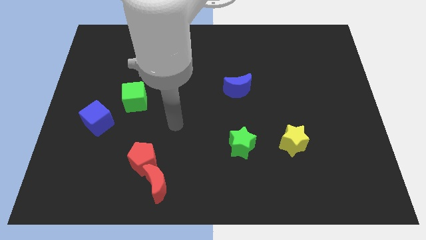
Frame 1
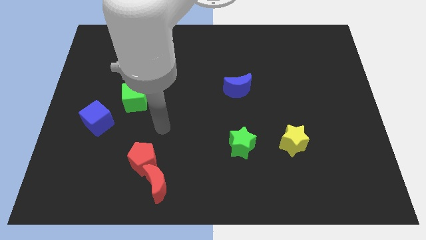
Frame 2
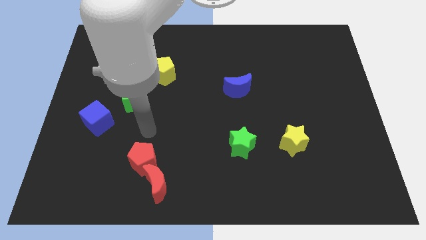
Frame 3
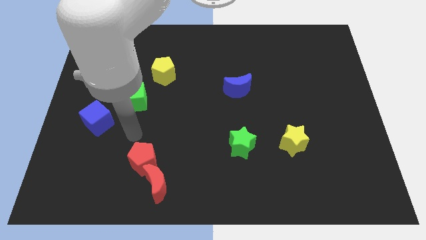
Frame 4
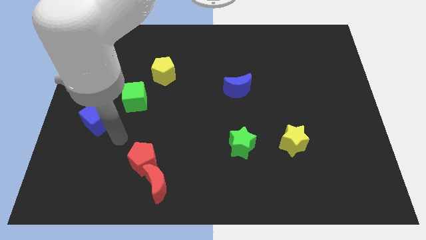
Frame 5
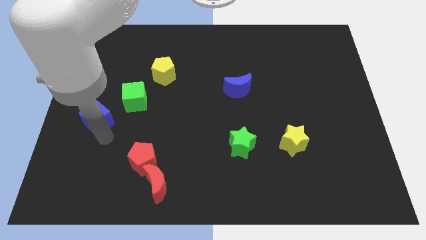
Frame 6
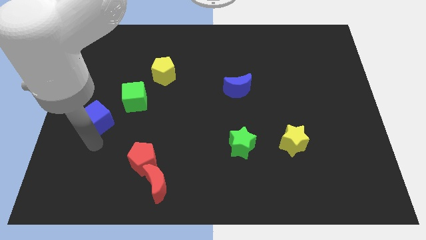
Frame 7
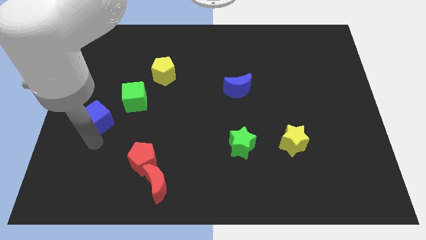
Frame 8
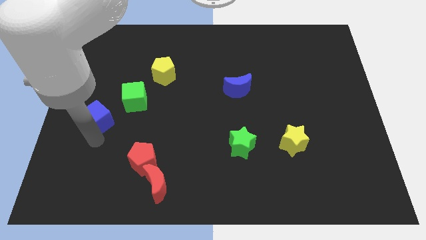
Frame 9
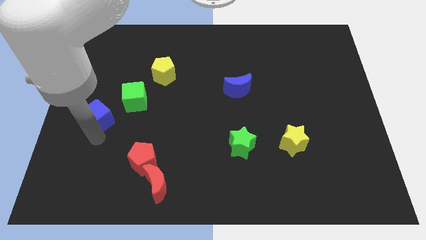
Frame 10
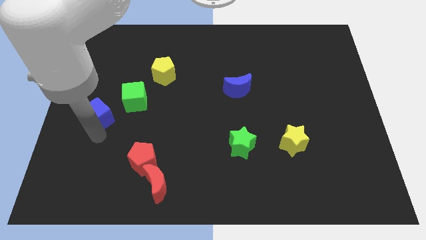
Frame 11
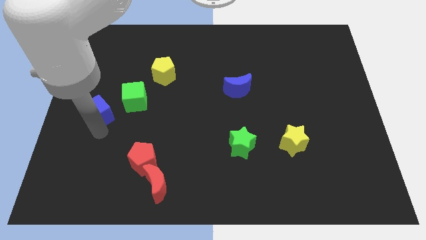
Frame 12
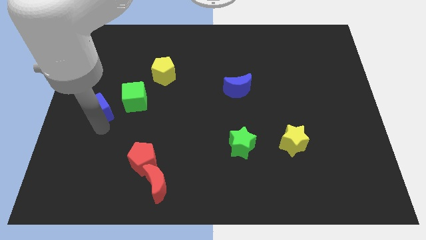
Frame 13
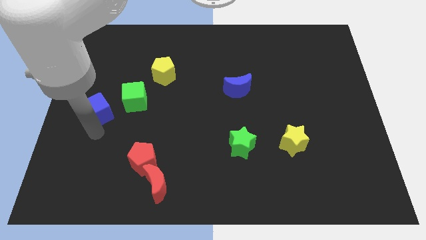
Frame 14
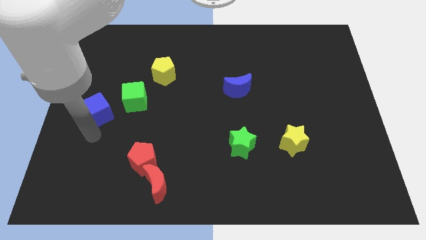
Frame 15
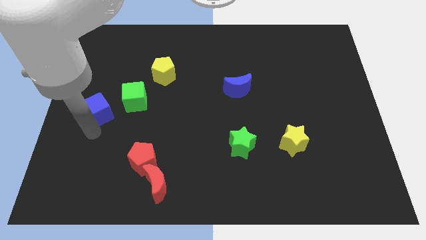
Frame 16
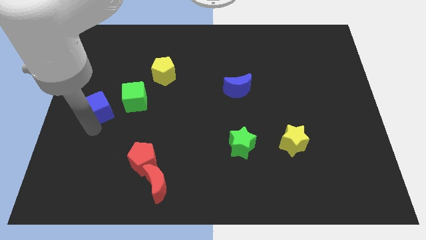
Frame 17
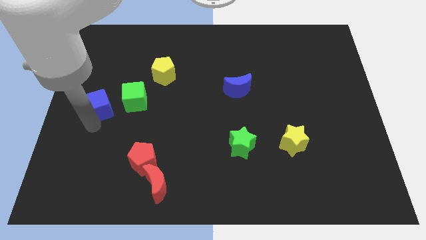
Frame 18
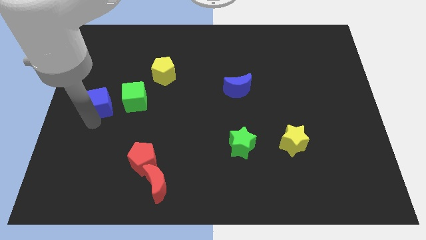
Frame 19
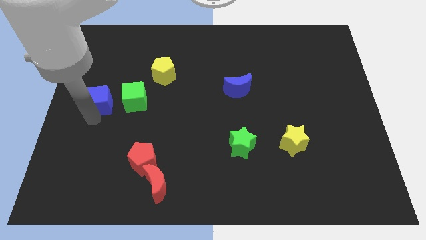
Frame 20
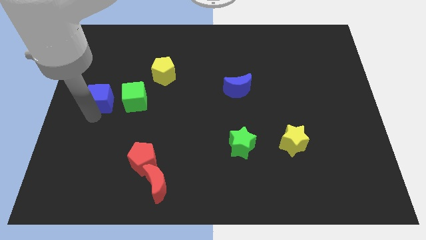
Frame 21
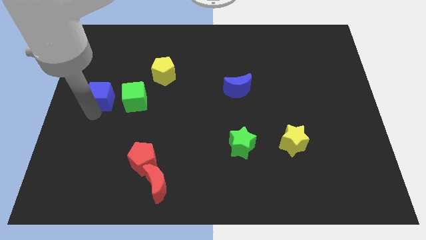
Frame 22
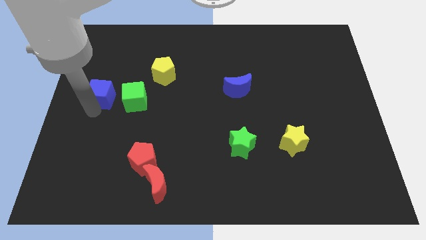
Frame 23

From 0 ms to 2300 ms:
move the blue cube upwards a little

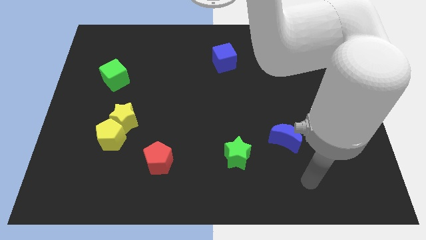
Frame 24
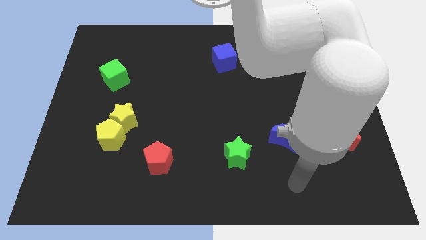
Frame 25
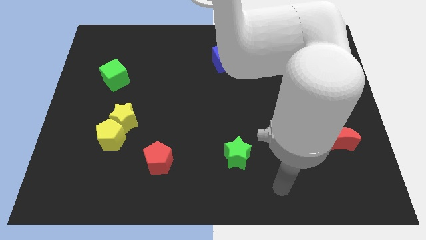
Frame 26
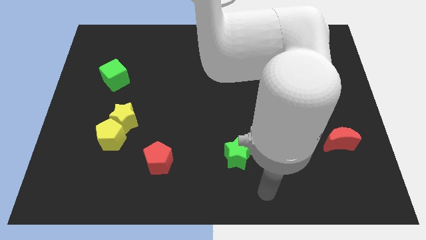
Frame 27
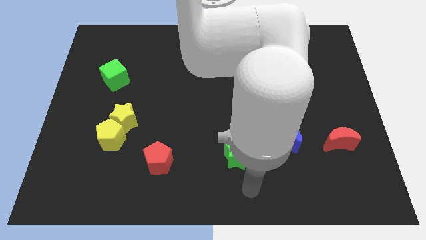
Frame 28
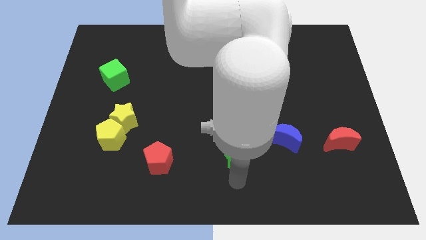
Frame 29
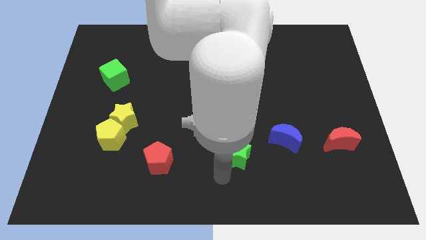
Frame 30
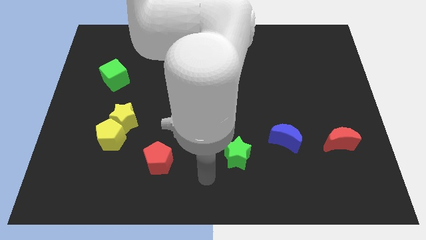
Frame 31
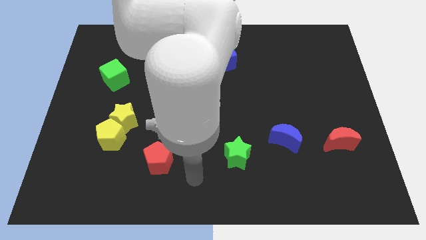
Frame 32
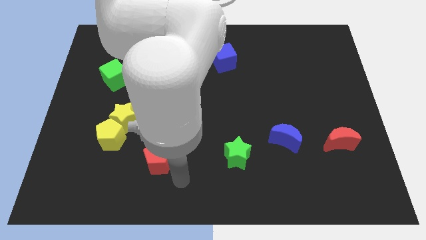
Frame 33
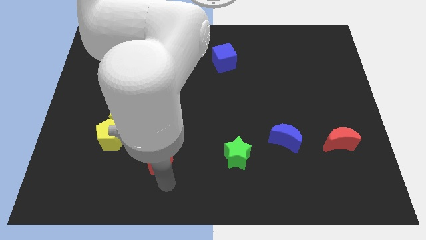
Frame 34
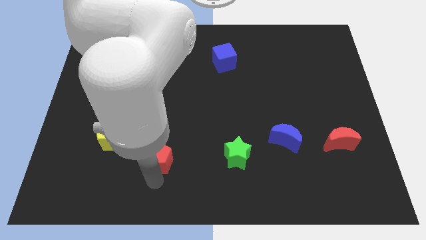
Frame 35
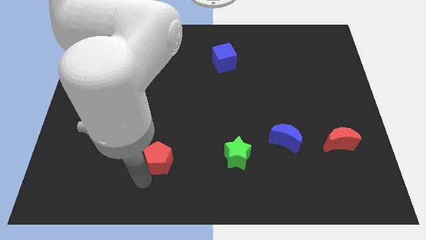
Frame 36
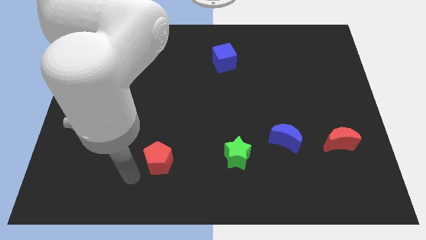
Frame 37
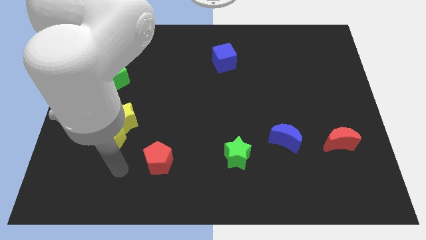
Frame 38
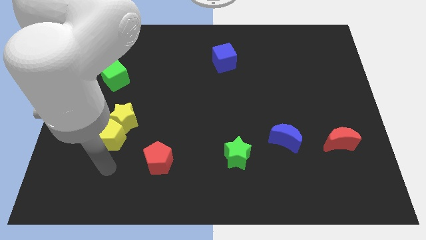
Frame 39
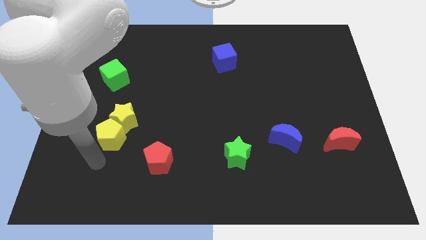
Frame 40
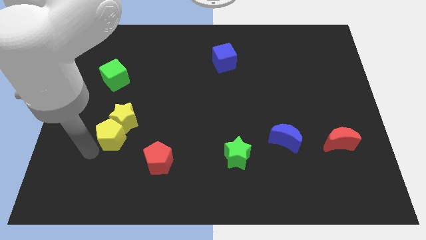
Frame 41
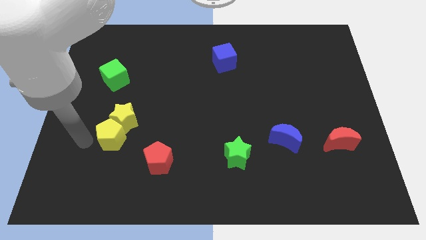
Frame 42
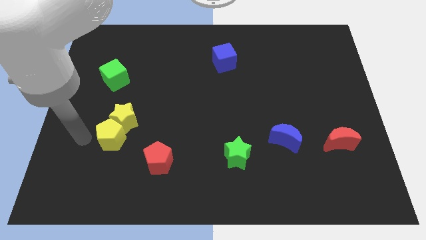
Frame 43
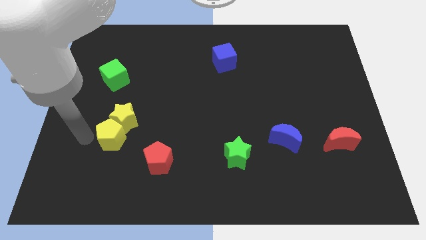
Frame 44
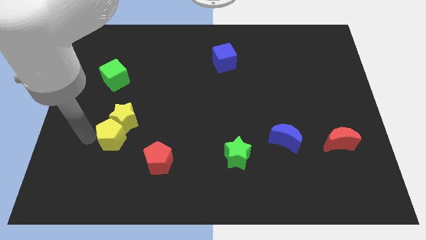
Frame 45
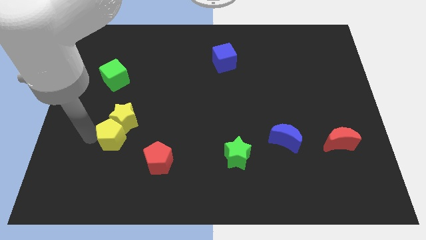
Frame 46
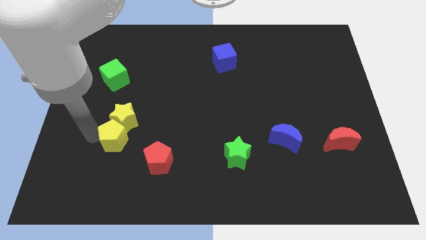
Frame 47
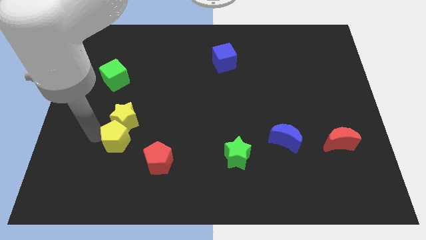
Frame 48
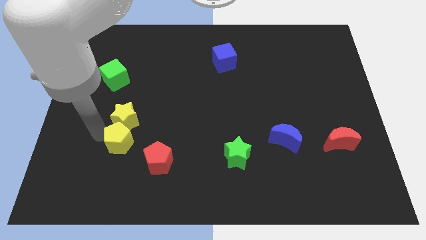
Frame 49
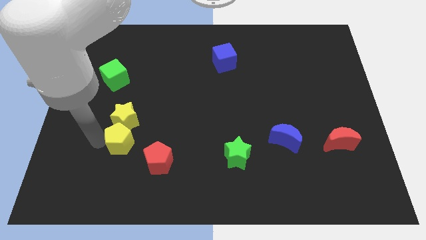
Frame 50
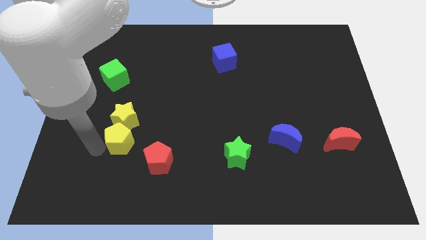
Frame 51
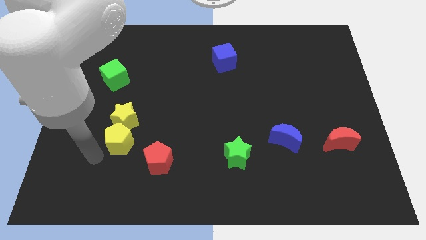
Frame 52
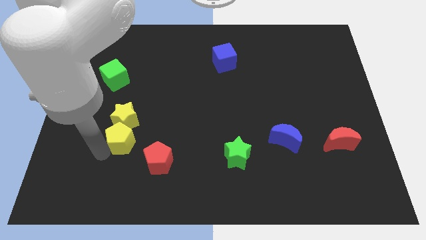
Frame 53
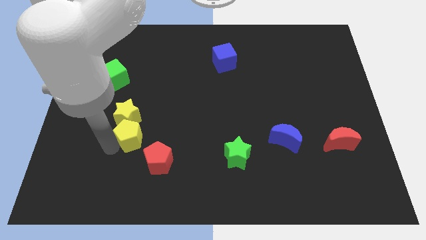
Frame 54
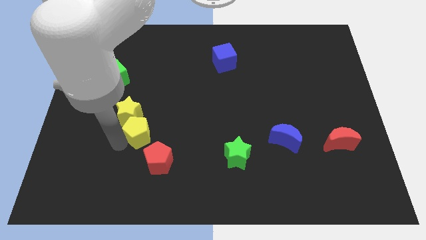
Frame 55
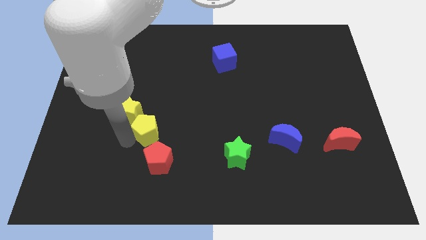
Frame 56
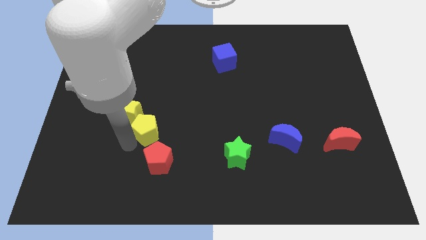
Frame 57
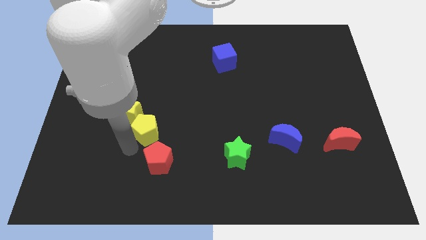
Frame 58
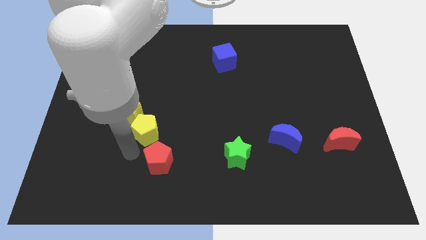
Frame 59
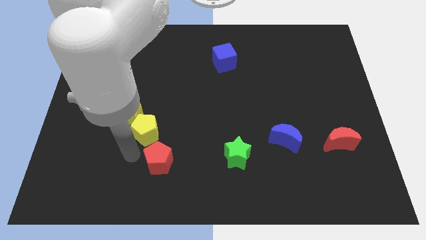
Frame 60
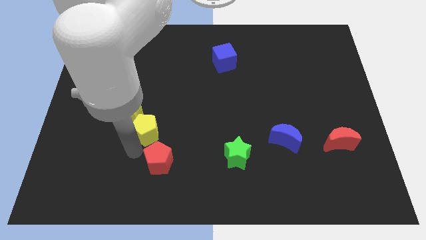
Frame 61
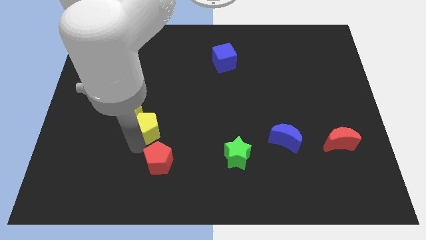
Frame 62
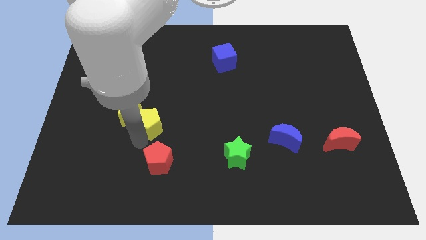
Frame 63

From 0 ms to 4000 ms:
push the yellow pentagon up and then right a little

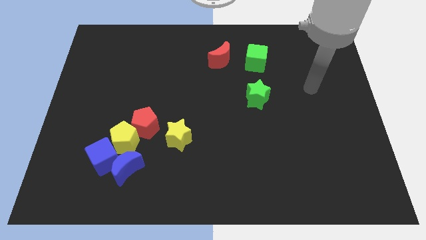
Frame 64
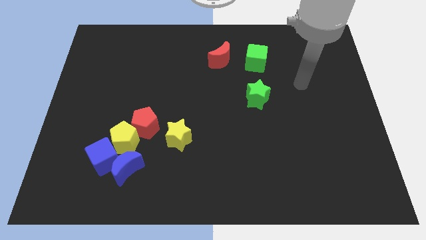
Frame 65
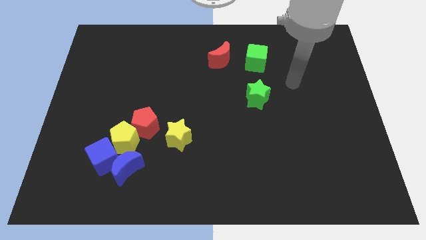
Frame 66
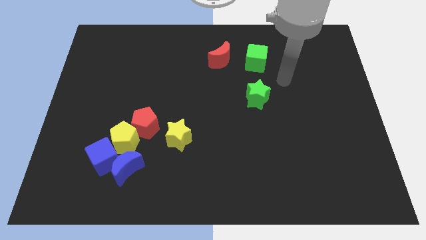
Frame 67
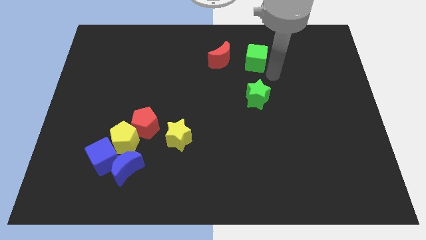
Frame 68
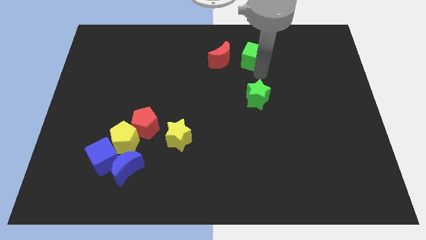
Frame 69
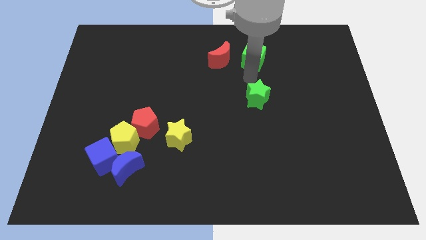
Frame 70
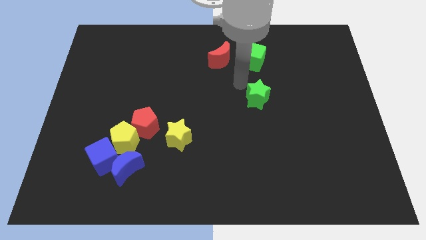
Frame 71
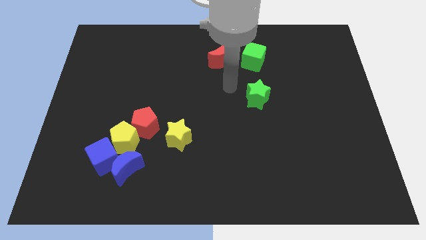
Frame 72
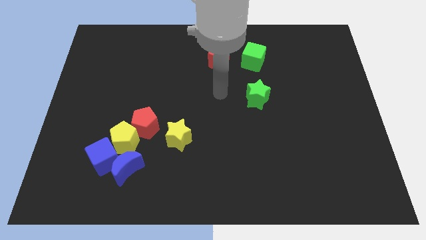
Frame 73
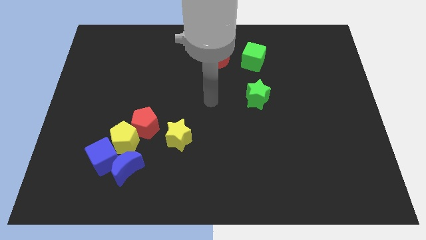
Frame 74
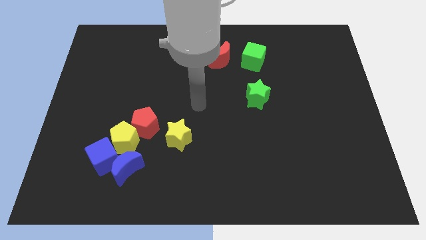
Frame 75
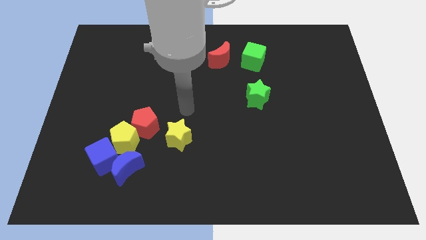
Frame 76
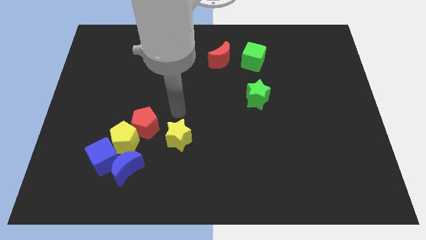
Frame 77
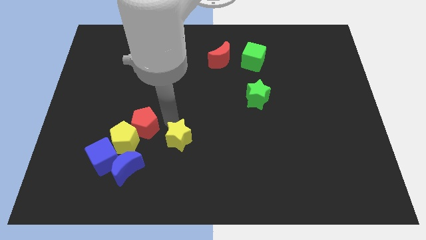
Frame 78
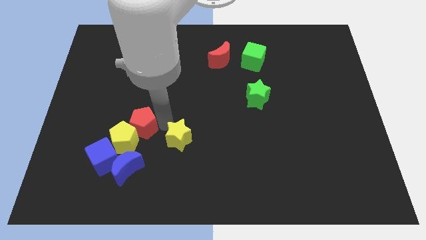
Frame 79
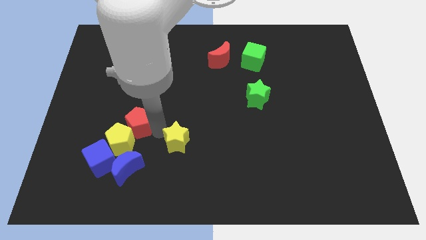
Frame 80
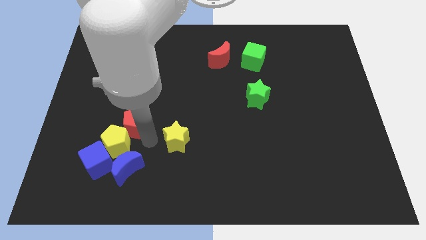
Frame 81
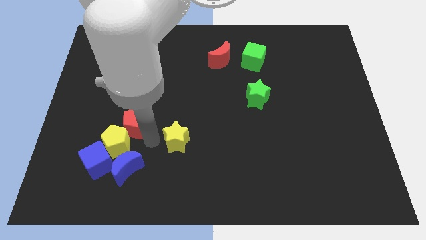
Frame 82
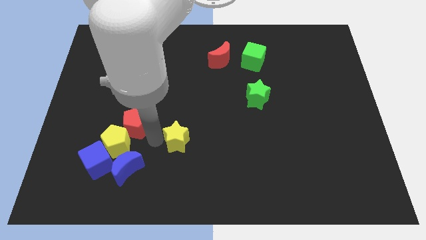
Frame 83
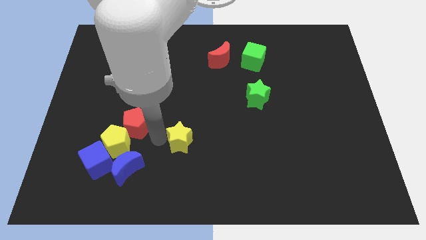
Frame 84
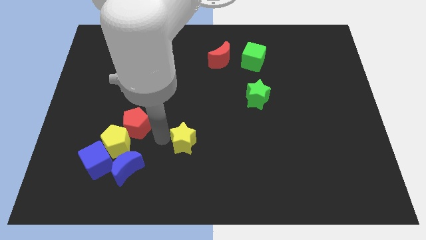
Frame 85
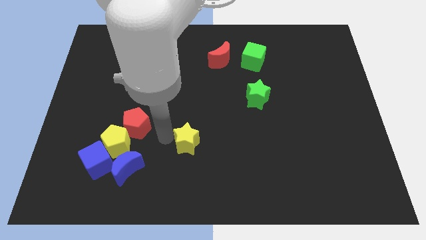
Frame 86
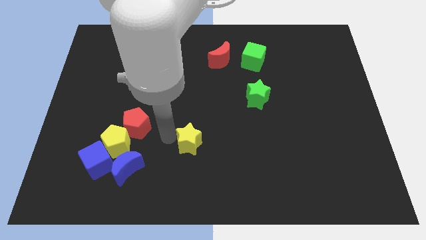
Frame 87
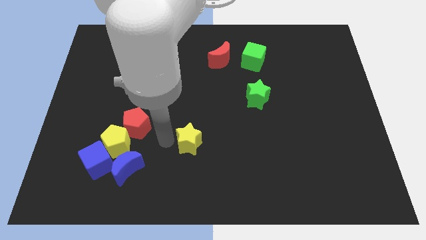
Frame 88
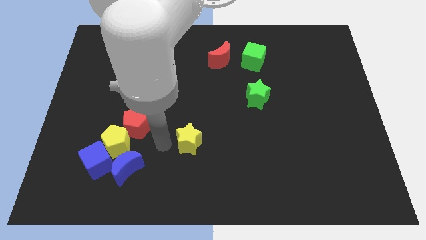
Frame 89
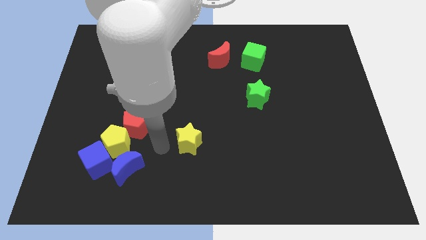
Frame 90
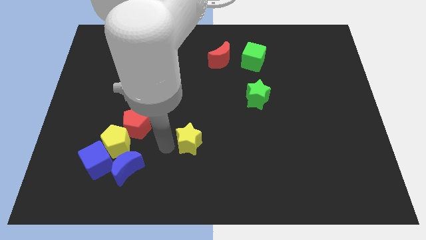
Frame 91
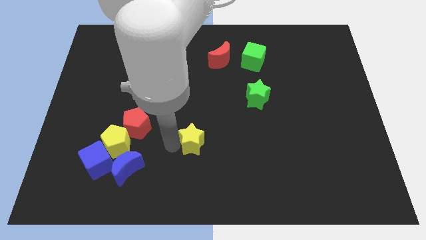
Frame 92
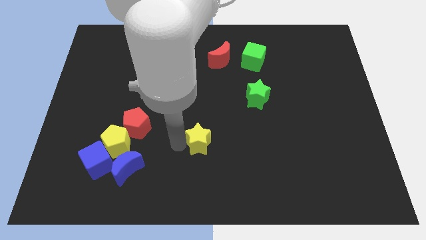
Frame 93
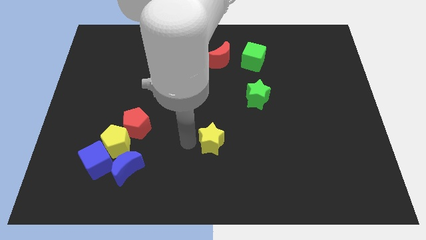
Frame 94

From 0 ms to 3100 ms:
slightly push the yellow star right
